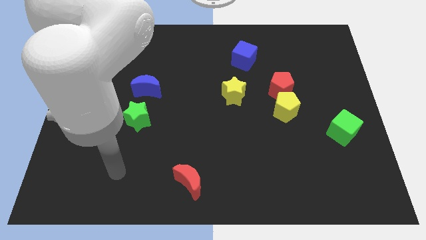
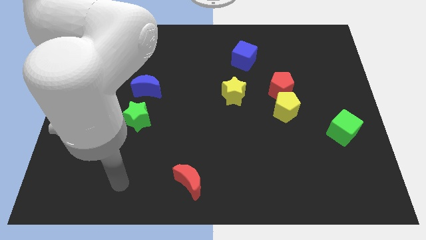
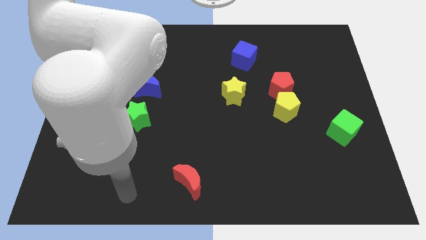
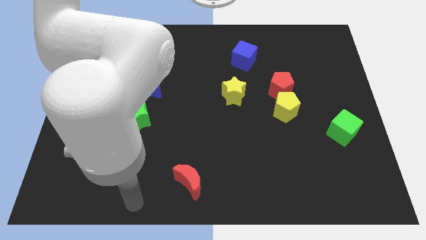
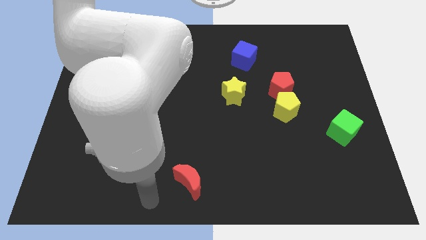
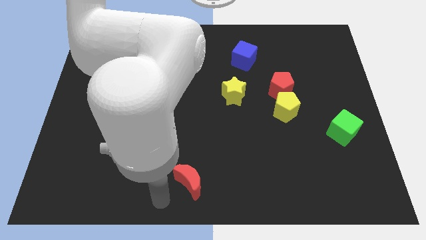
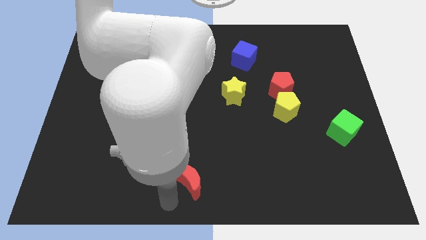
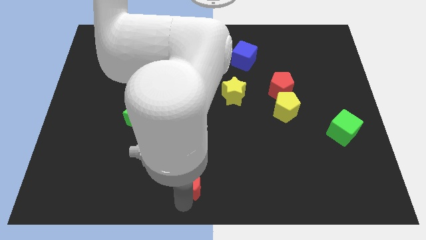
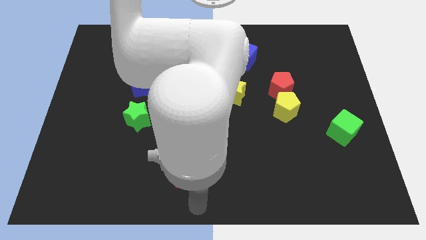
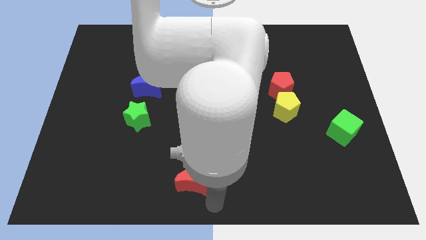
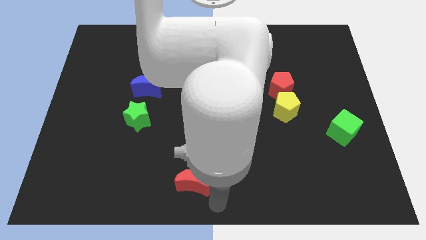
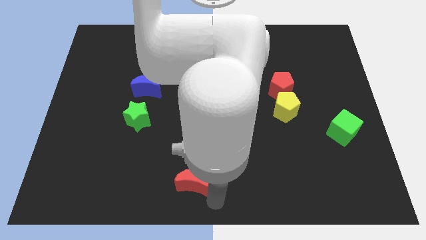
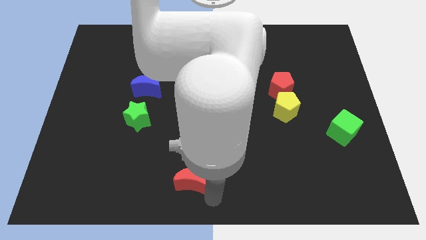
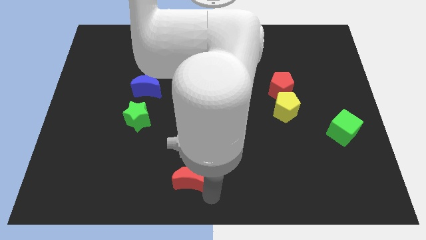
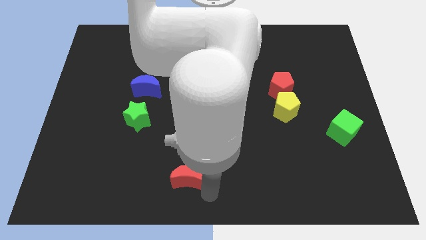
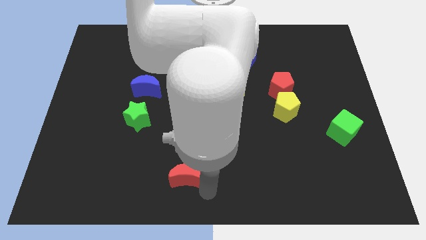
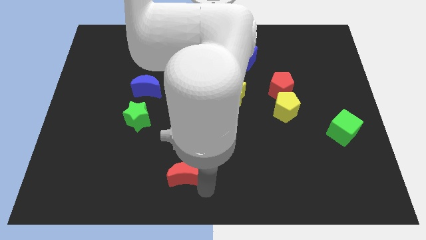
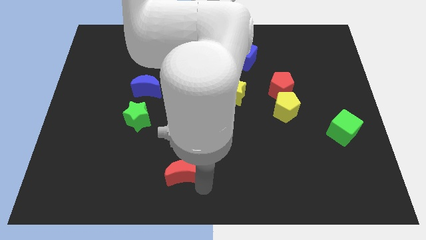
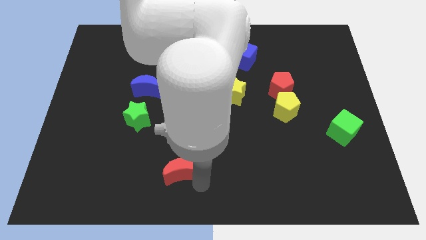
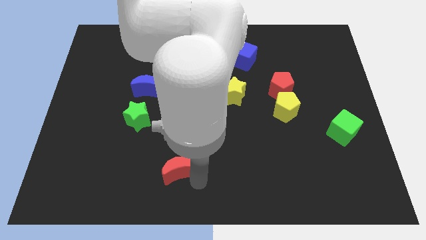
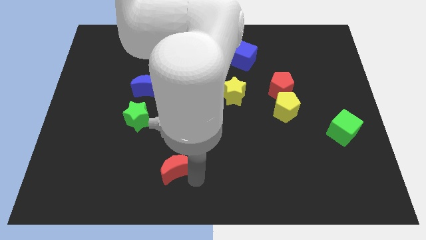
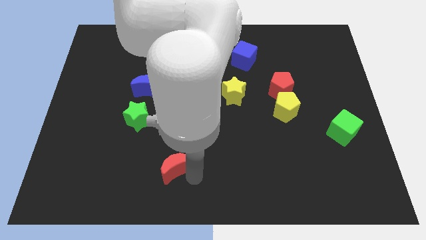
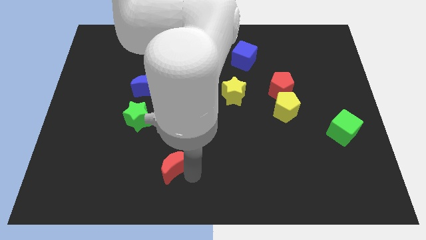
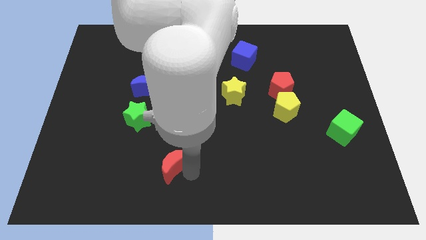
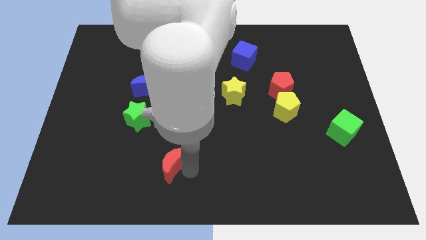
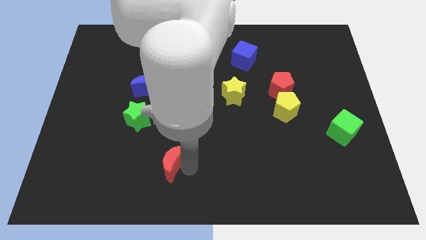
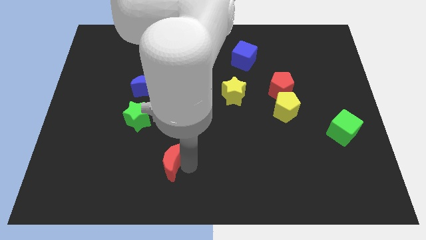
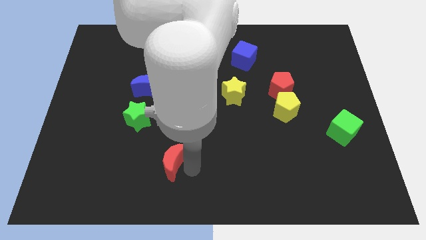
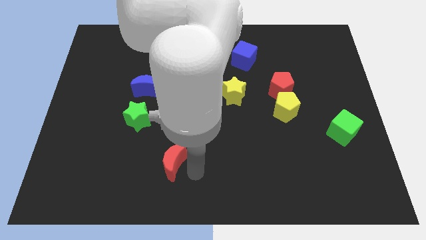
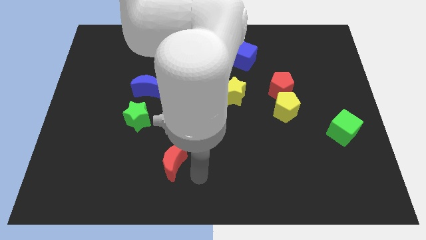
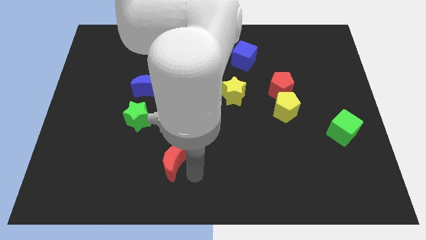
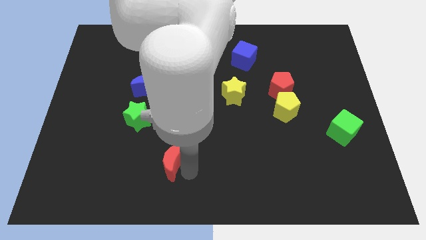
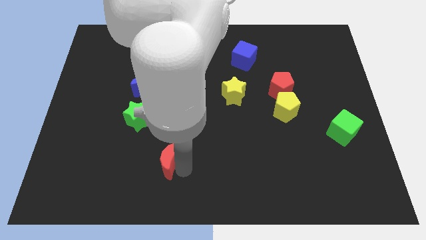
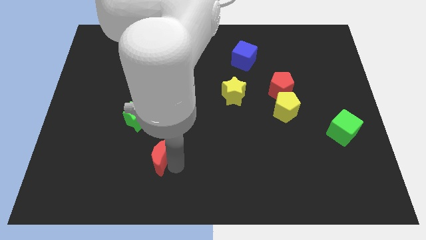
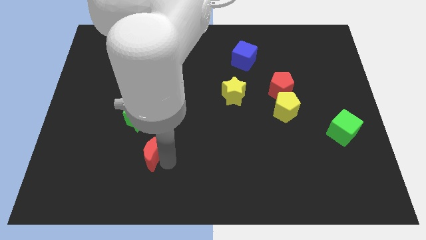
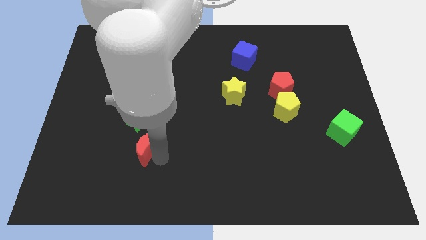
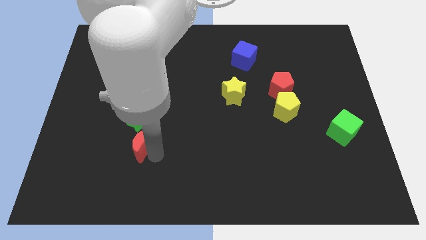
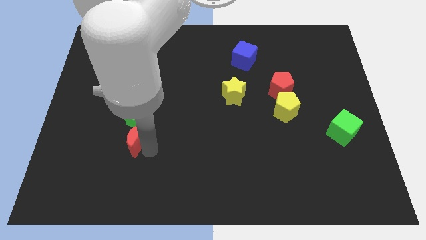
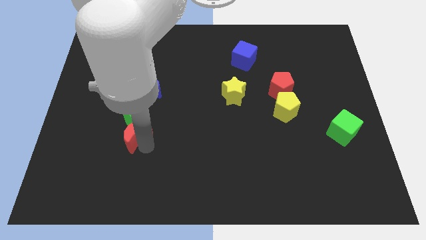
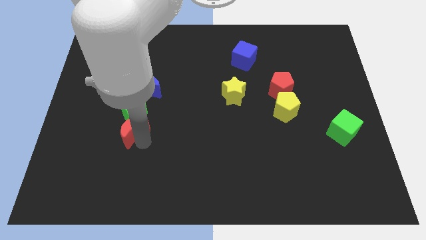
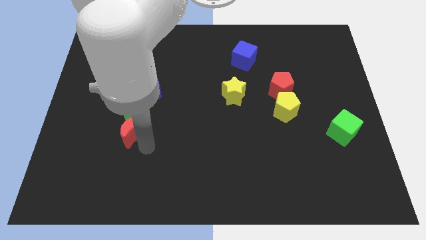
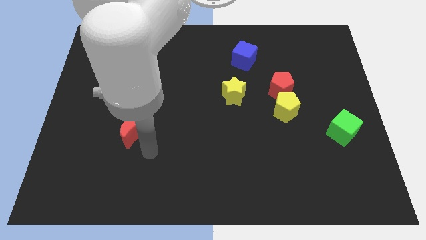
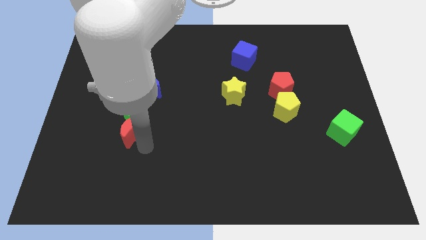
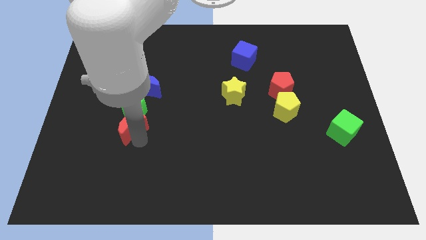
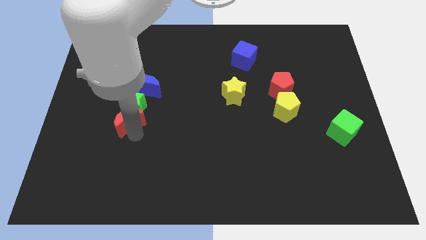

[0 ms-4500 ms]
slide the red moon upwards and to the left diagonally

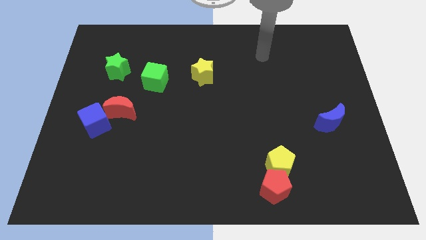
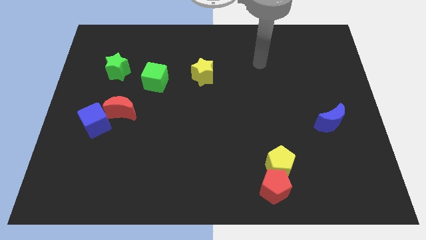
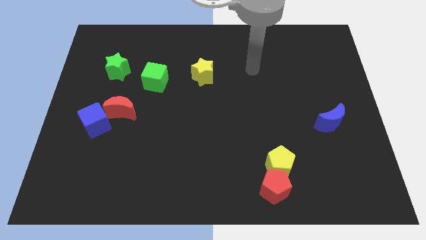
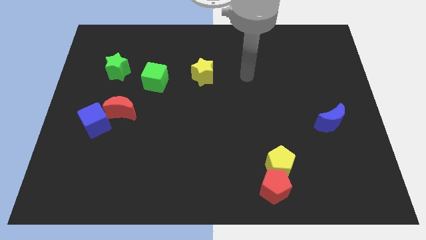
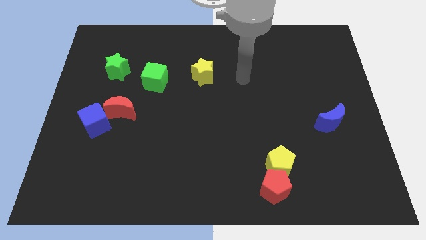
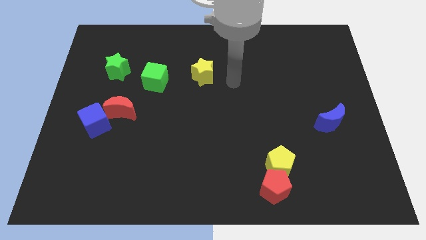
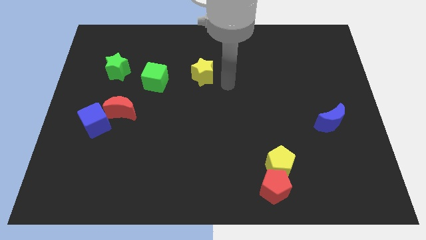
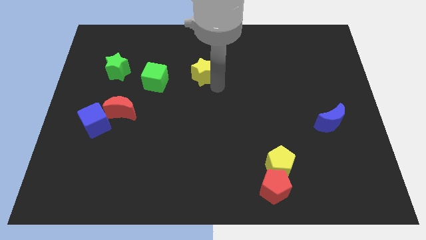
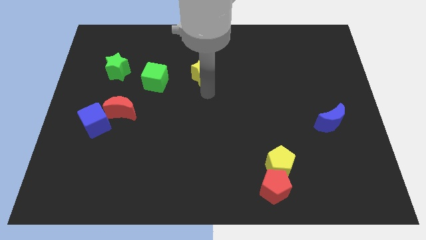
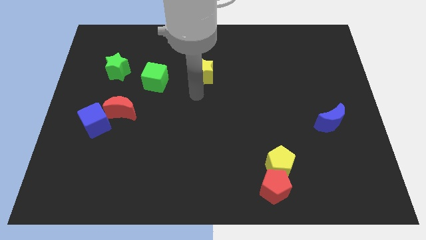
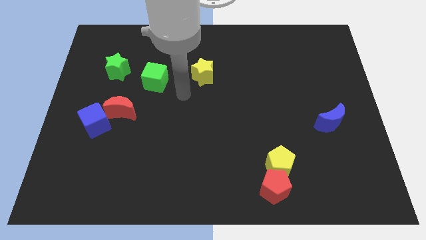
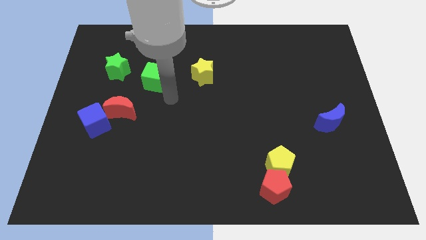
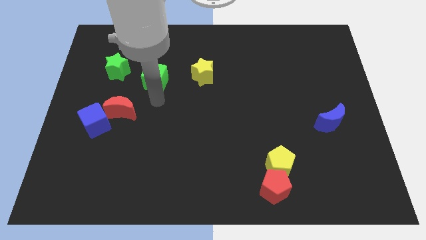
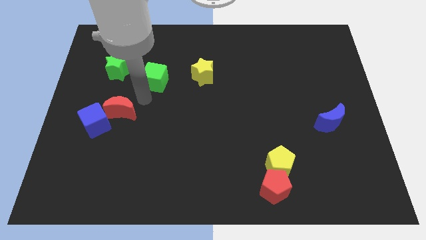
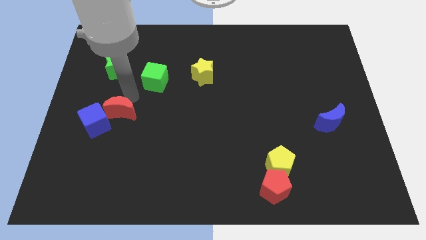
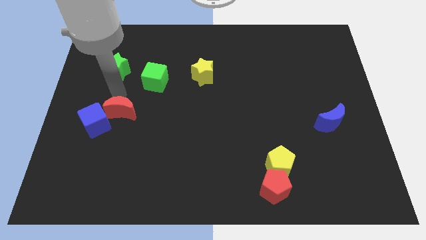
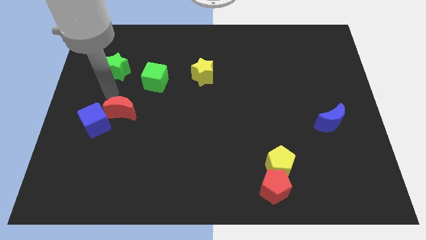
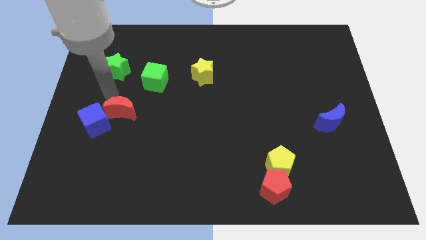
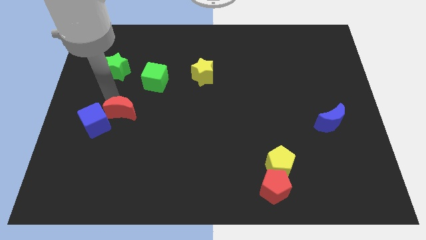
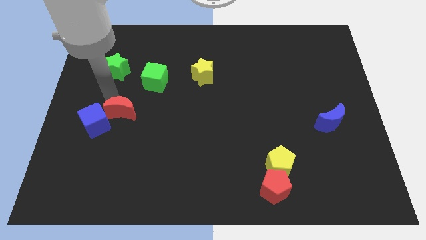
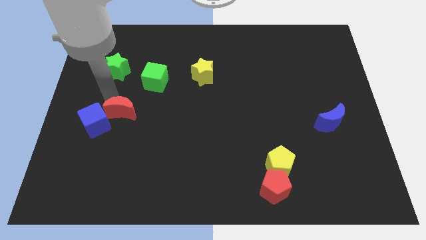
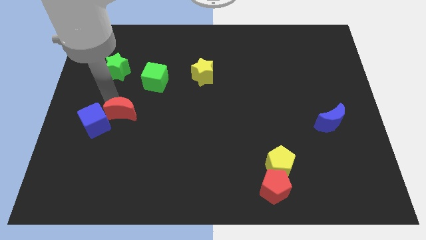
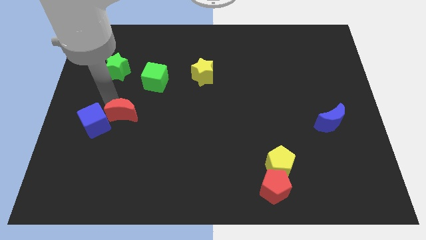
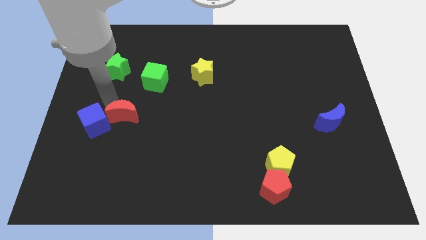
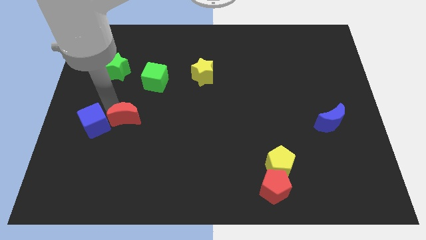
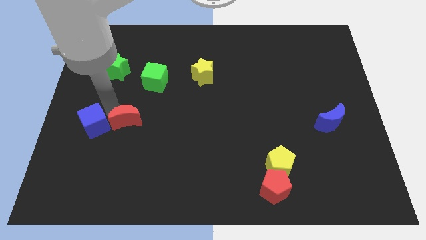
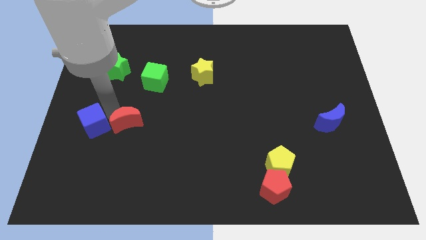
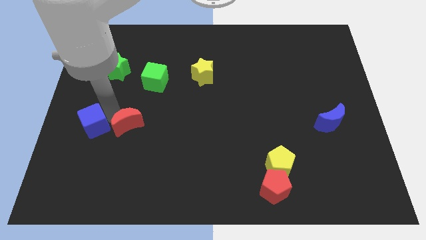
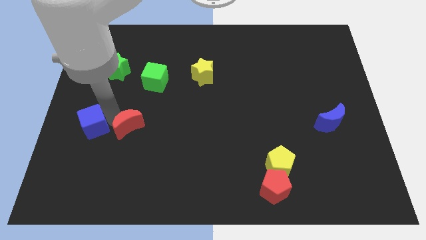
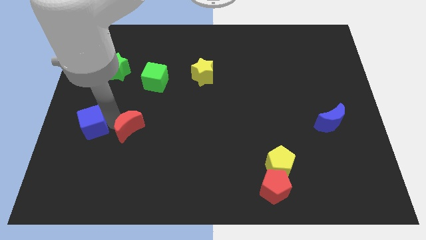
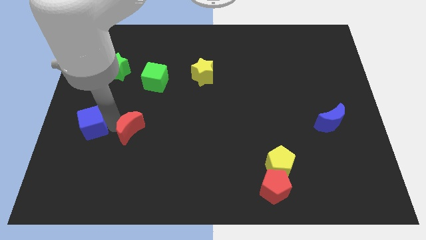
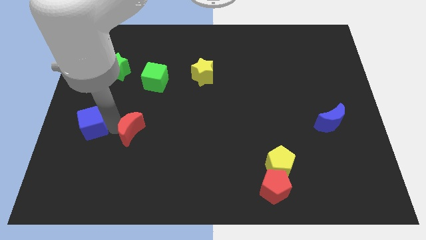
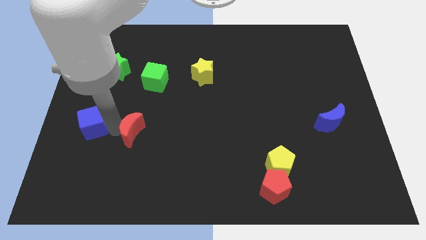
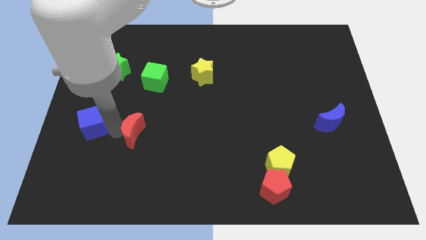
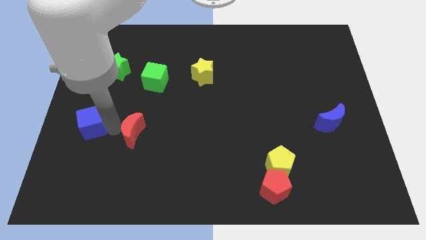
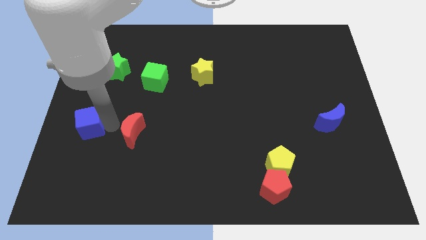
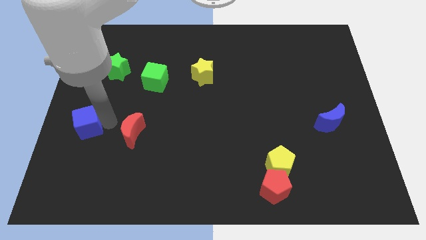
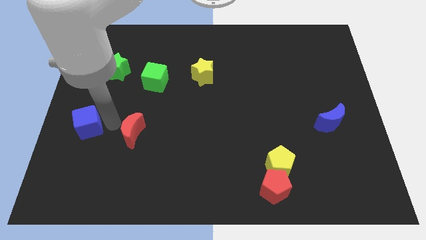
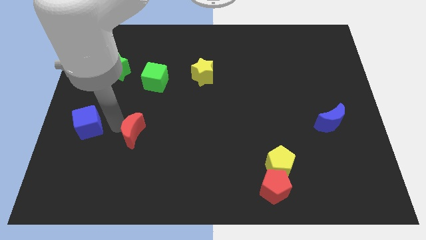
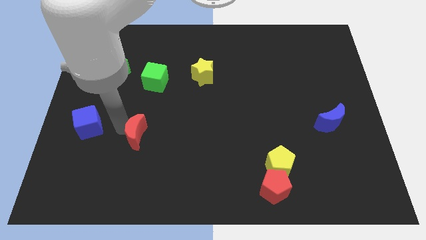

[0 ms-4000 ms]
slide the red moon downwards and then right a little bit
